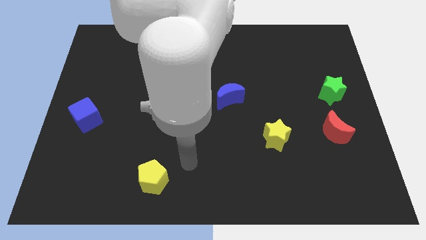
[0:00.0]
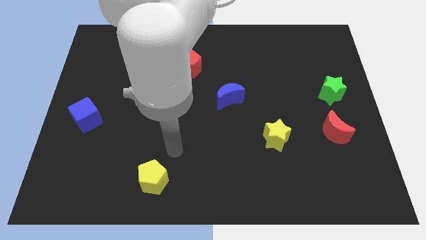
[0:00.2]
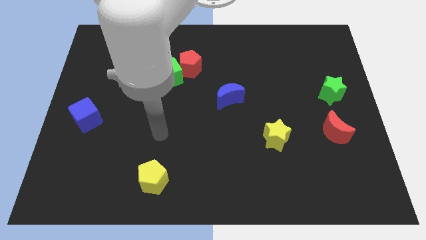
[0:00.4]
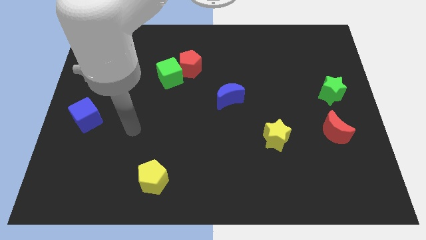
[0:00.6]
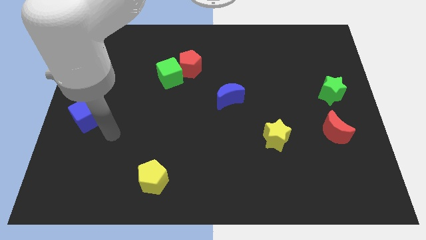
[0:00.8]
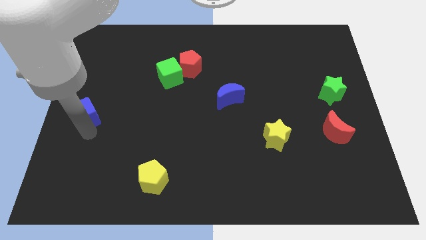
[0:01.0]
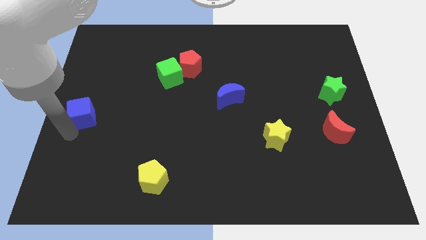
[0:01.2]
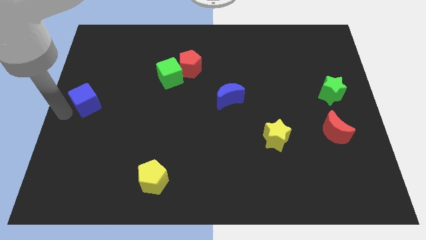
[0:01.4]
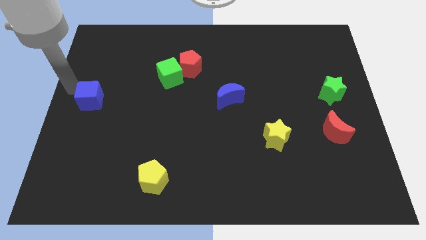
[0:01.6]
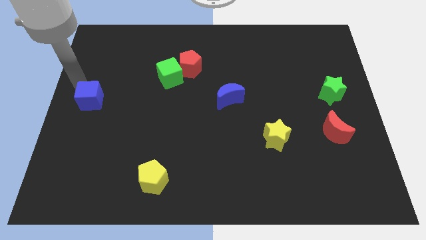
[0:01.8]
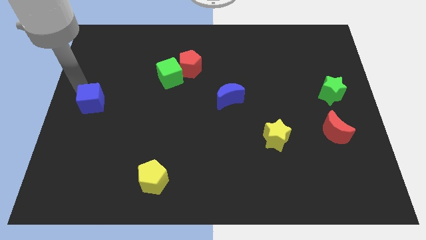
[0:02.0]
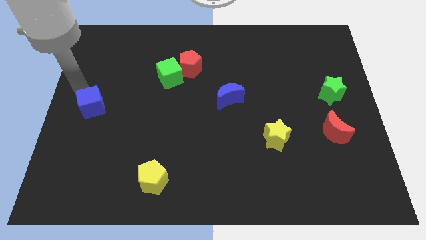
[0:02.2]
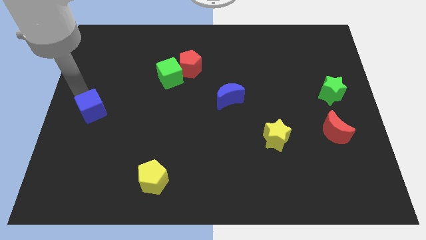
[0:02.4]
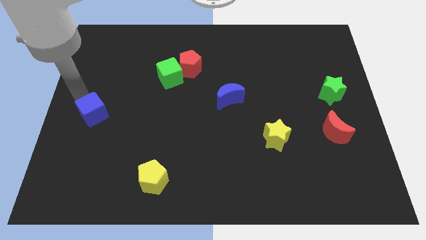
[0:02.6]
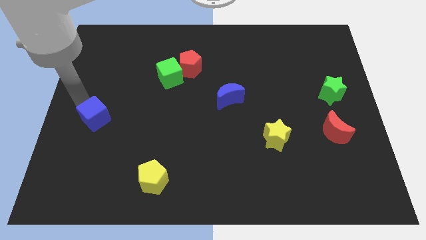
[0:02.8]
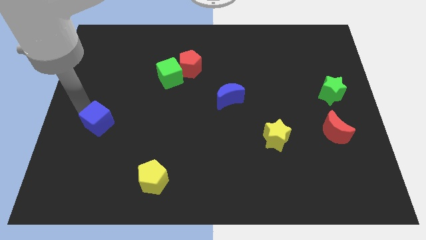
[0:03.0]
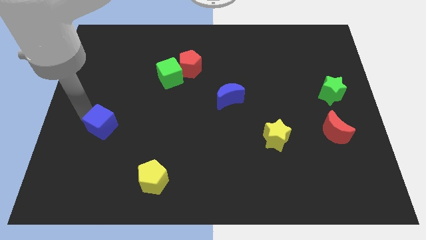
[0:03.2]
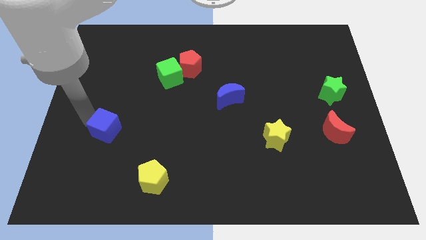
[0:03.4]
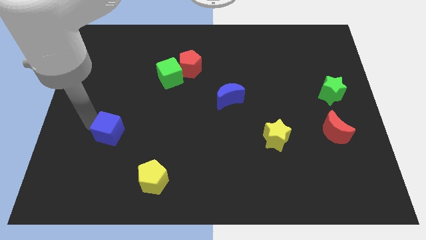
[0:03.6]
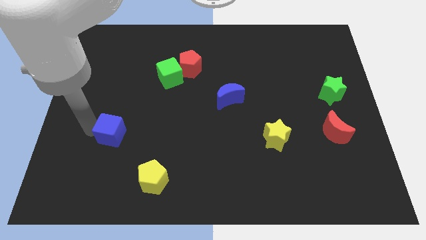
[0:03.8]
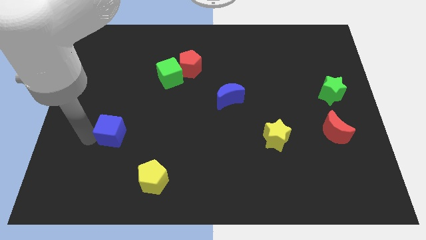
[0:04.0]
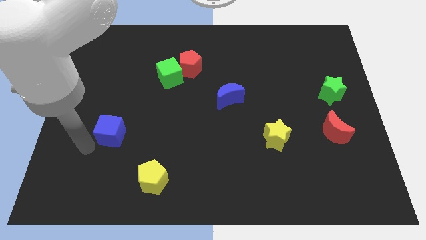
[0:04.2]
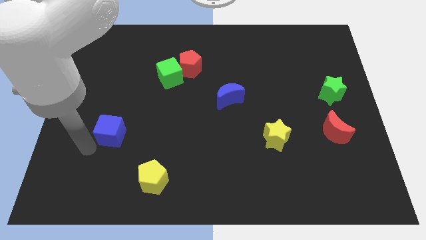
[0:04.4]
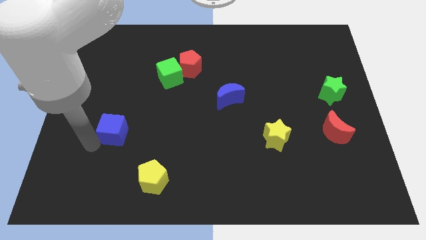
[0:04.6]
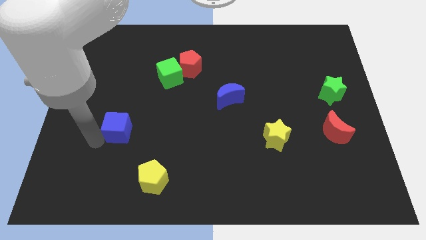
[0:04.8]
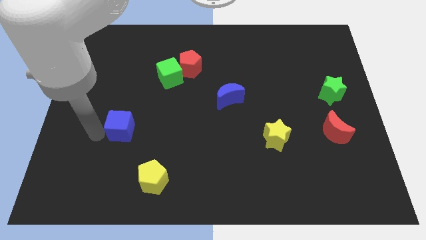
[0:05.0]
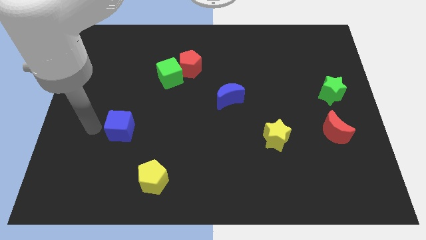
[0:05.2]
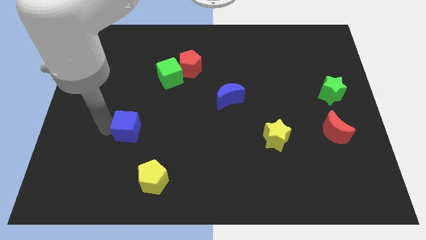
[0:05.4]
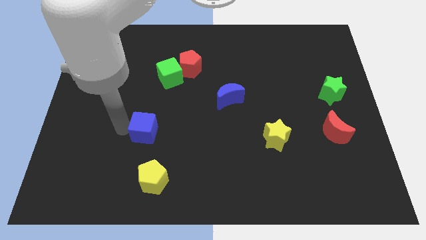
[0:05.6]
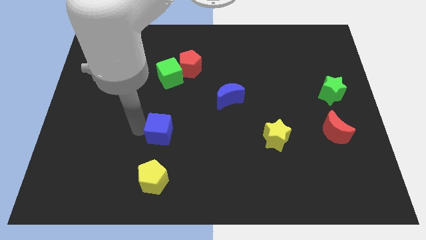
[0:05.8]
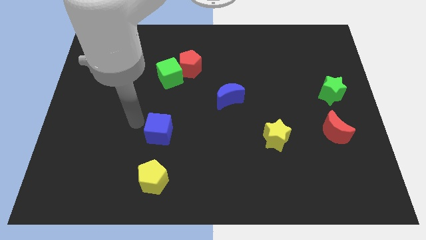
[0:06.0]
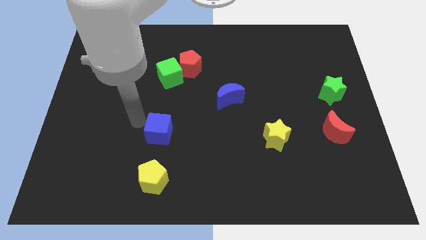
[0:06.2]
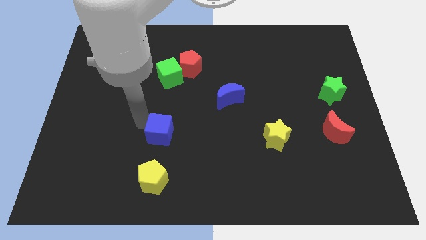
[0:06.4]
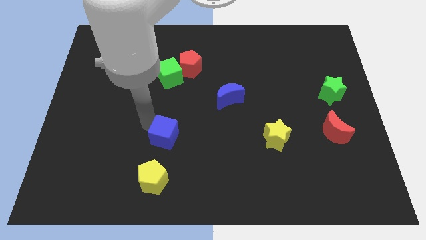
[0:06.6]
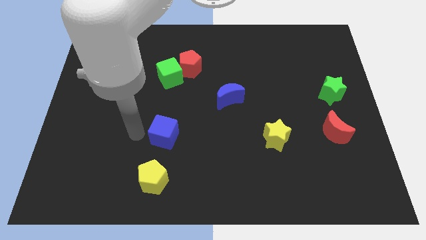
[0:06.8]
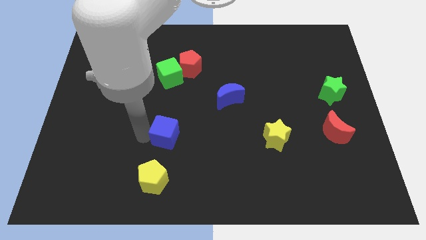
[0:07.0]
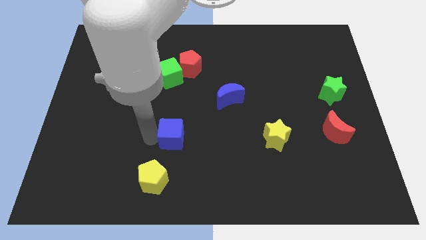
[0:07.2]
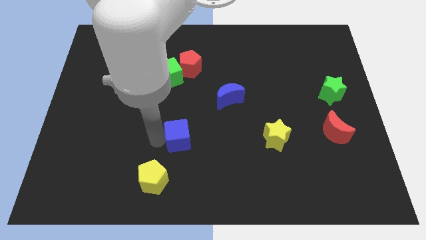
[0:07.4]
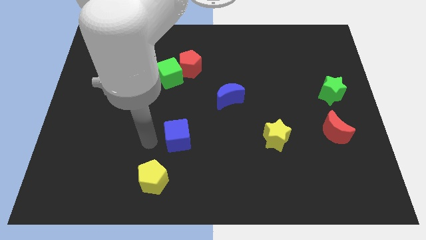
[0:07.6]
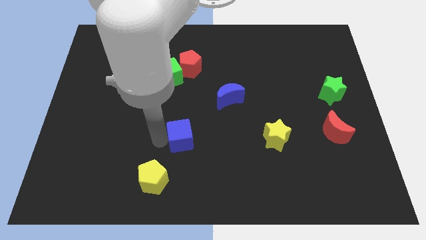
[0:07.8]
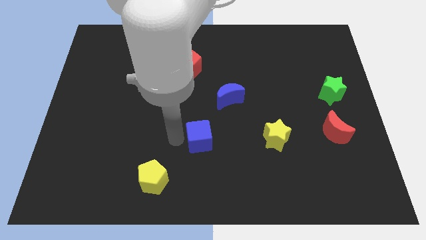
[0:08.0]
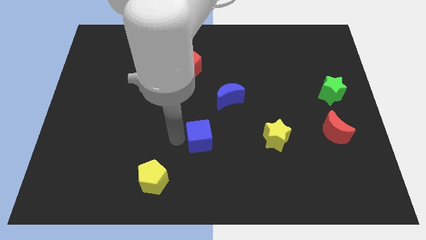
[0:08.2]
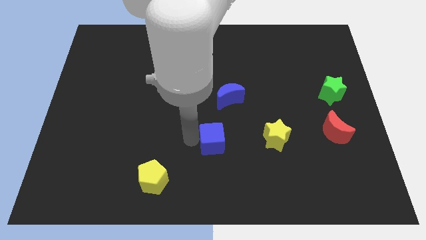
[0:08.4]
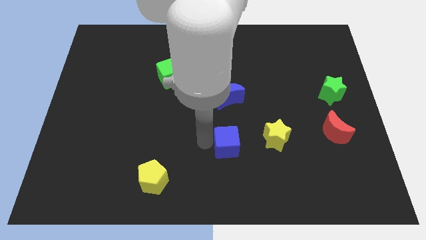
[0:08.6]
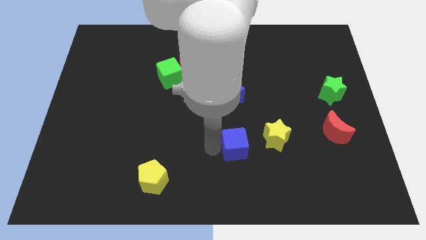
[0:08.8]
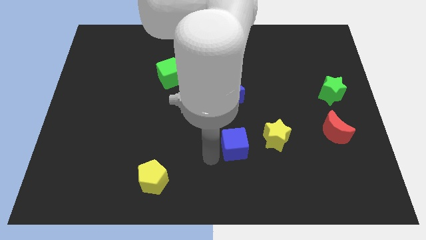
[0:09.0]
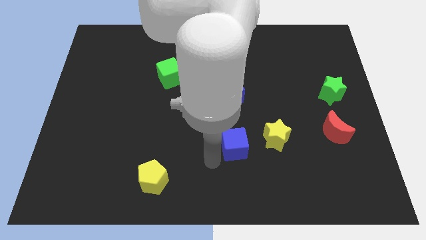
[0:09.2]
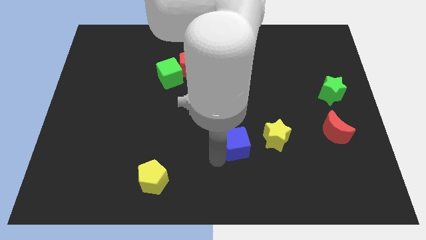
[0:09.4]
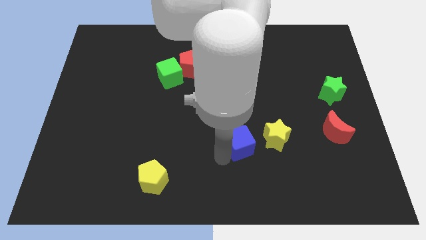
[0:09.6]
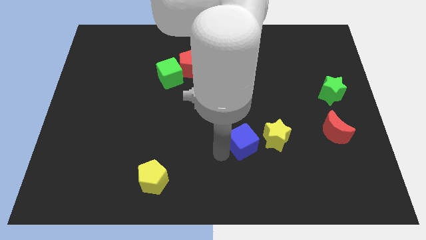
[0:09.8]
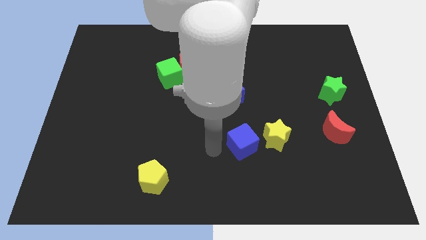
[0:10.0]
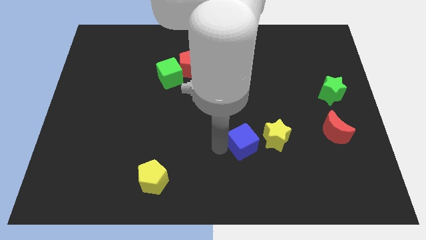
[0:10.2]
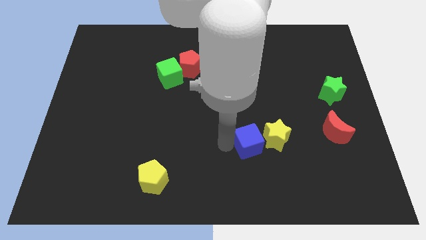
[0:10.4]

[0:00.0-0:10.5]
move the blue cube to the yellow star

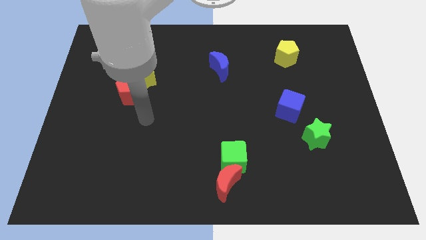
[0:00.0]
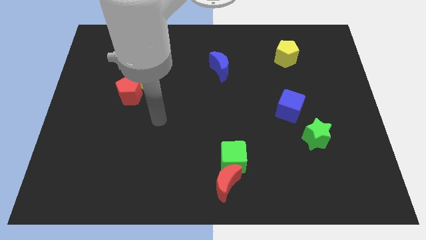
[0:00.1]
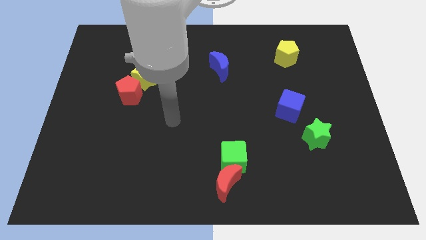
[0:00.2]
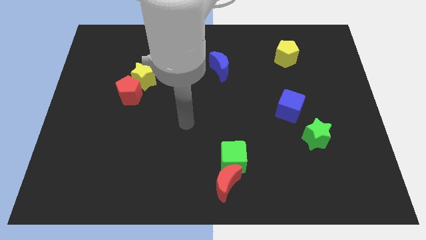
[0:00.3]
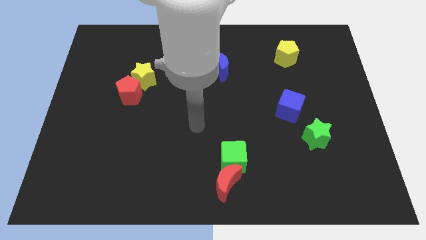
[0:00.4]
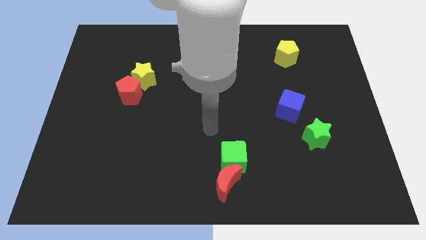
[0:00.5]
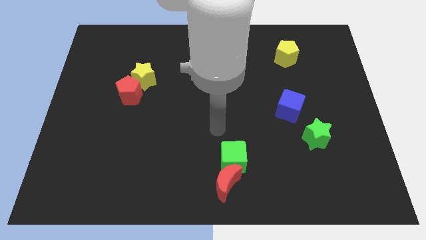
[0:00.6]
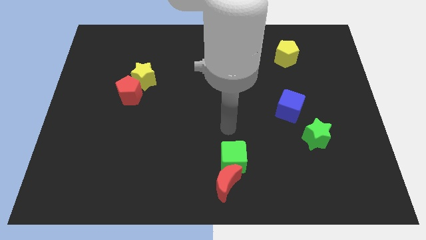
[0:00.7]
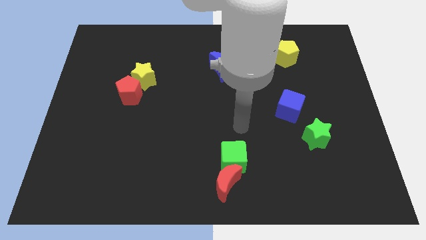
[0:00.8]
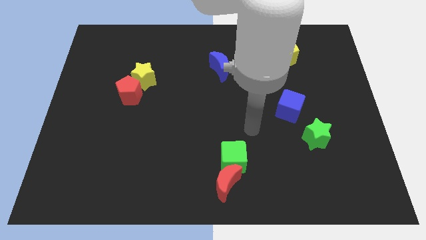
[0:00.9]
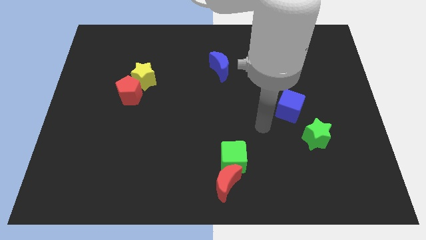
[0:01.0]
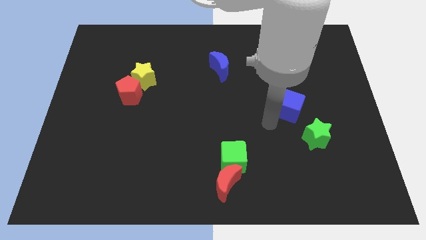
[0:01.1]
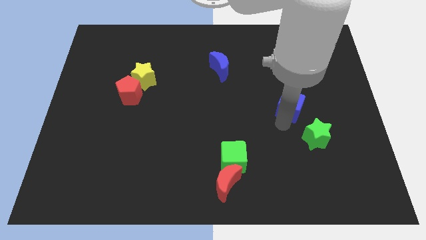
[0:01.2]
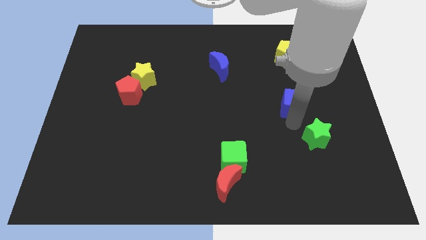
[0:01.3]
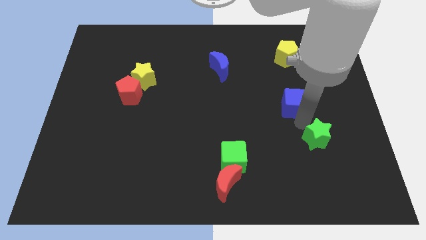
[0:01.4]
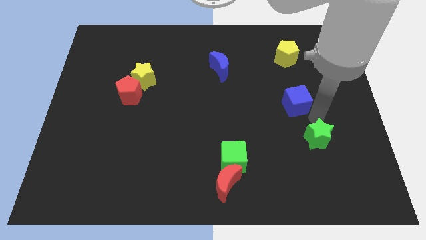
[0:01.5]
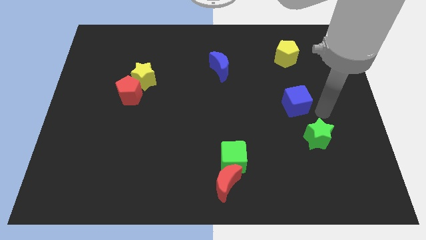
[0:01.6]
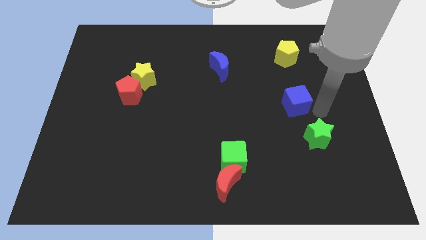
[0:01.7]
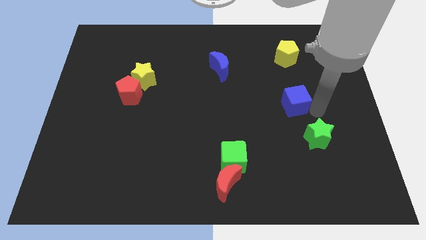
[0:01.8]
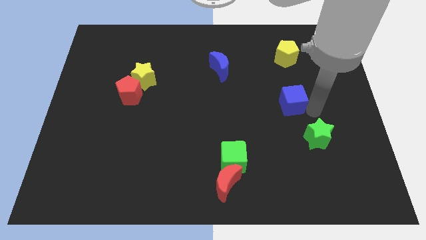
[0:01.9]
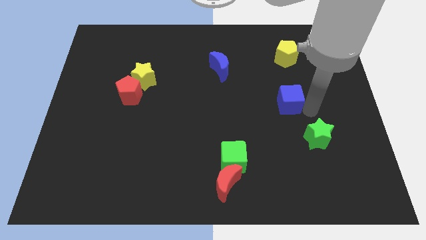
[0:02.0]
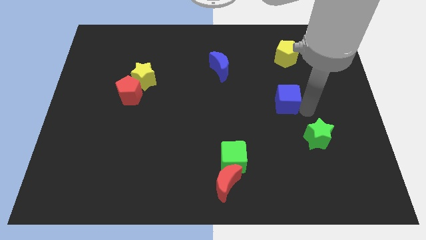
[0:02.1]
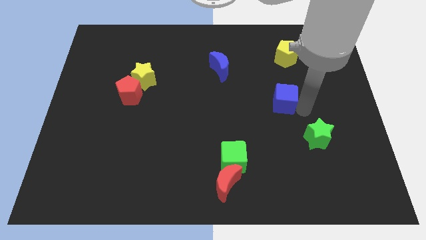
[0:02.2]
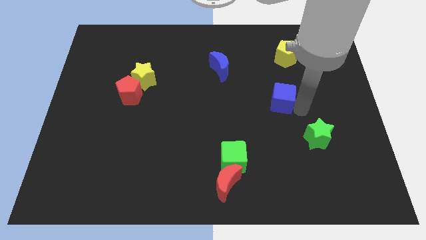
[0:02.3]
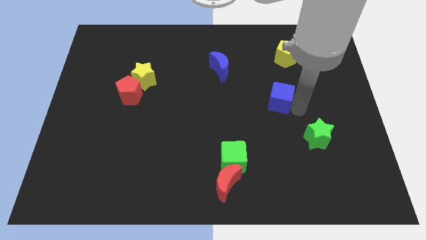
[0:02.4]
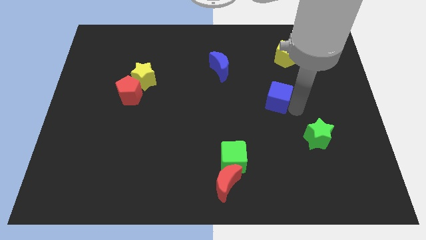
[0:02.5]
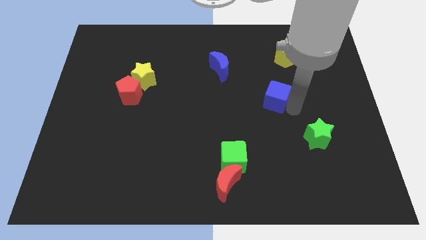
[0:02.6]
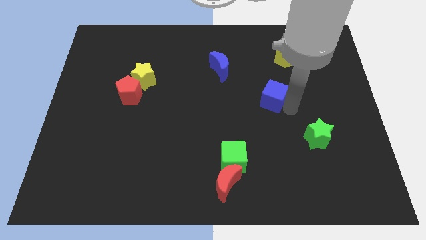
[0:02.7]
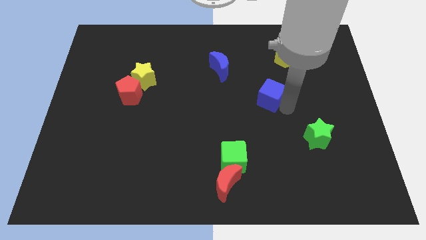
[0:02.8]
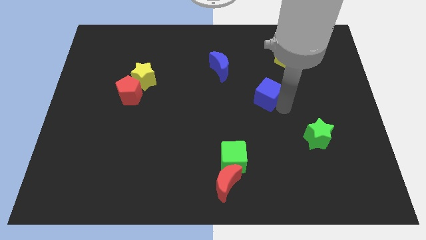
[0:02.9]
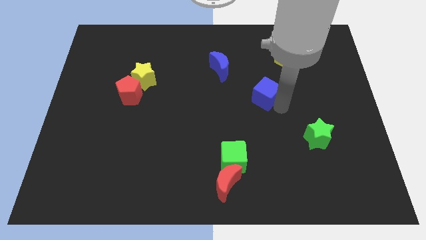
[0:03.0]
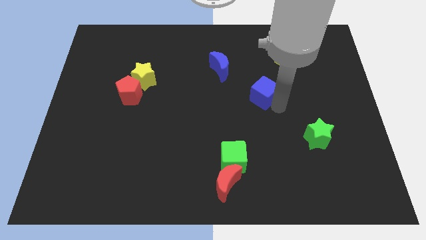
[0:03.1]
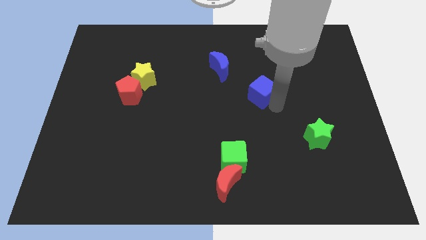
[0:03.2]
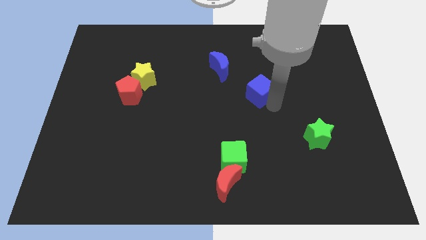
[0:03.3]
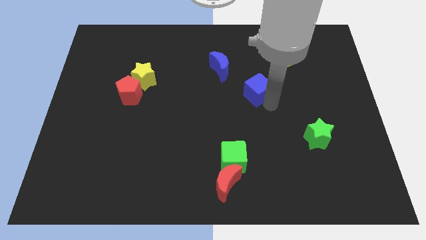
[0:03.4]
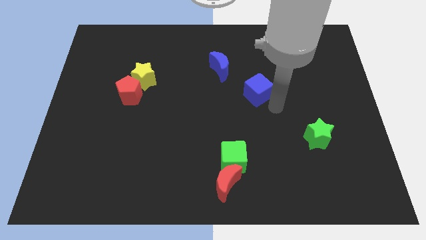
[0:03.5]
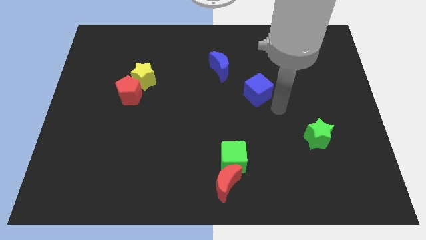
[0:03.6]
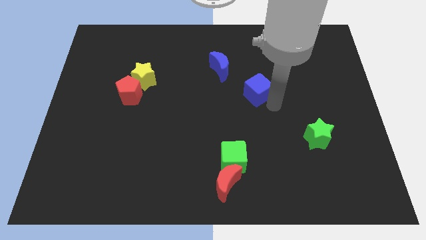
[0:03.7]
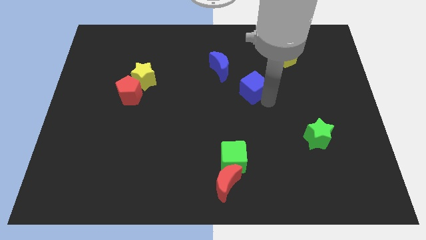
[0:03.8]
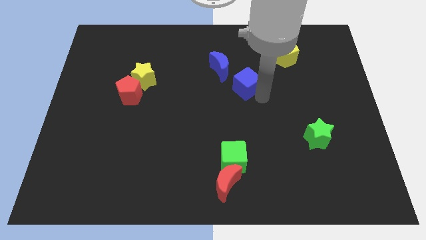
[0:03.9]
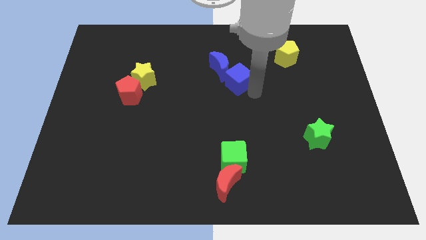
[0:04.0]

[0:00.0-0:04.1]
put the blue cube next to the blue moon
